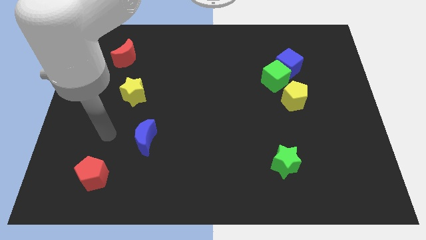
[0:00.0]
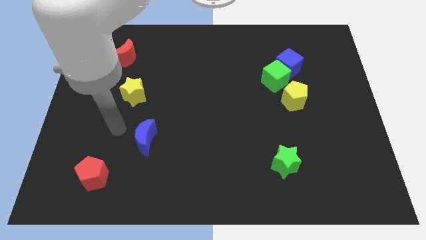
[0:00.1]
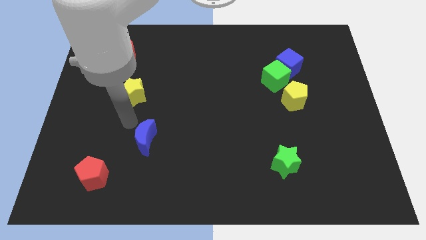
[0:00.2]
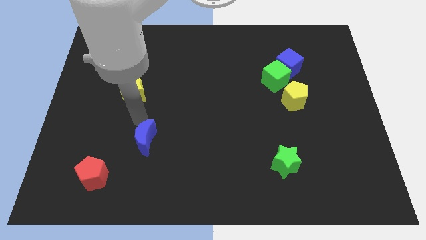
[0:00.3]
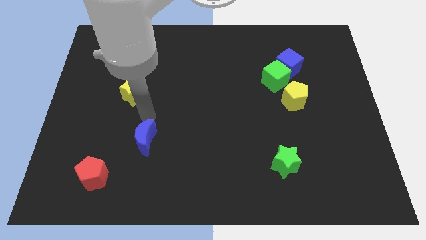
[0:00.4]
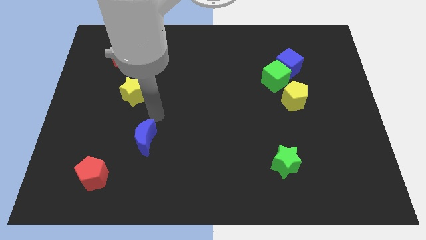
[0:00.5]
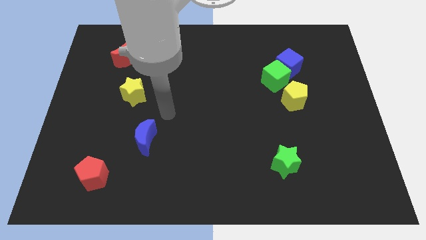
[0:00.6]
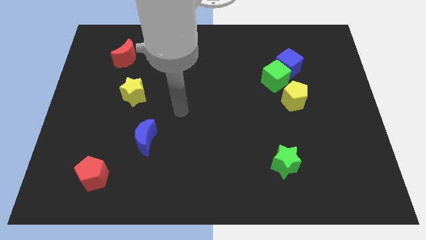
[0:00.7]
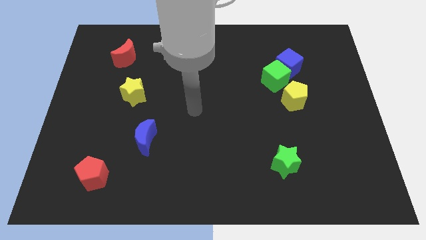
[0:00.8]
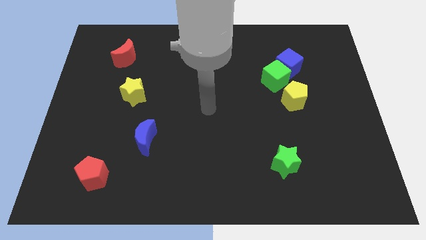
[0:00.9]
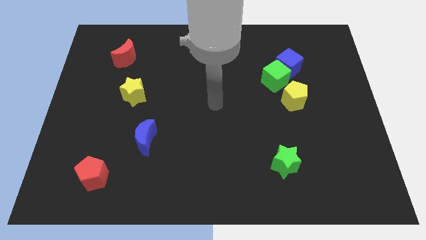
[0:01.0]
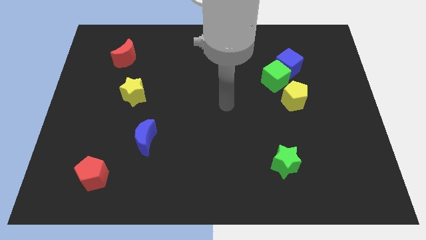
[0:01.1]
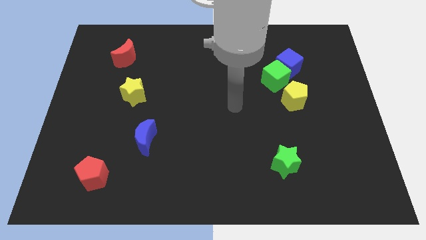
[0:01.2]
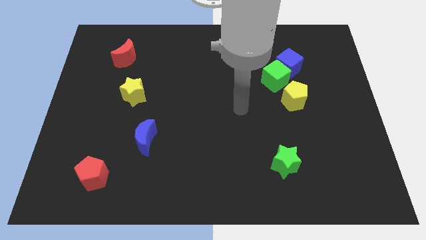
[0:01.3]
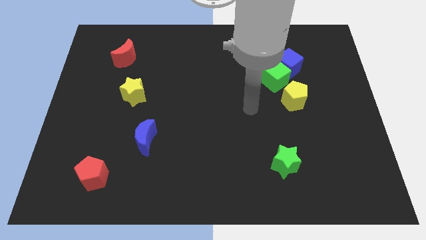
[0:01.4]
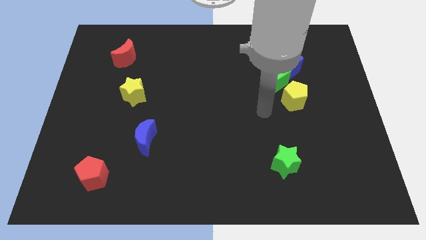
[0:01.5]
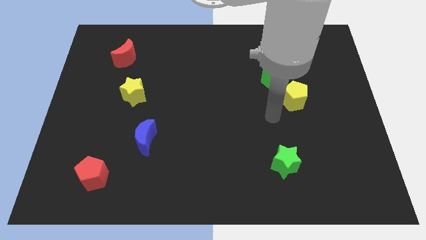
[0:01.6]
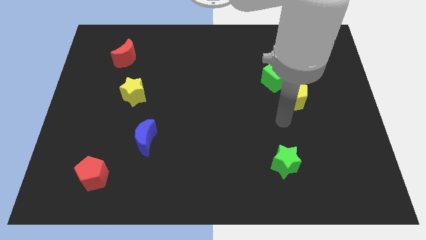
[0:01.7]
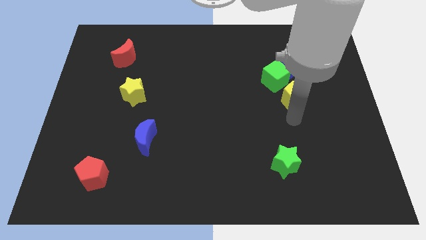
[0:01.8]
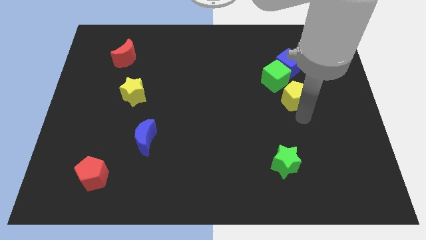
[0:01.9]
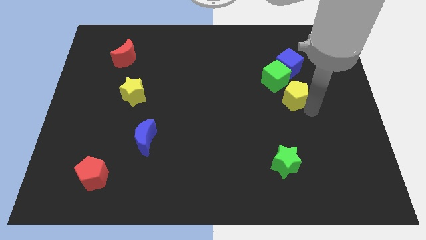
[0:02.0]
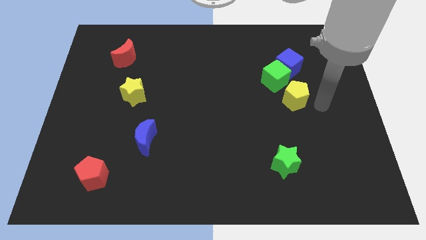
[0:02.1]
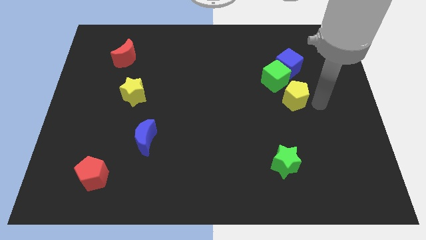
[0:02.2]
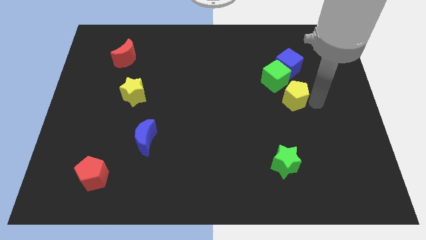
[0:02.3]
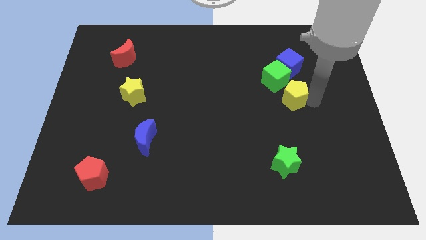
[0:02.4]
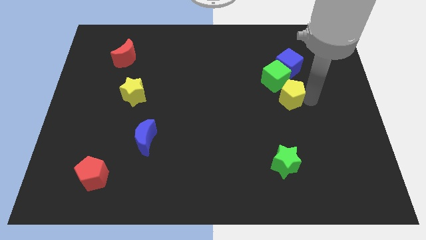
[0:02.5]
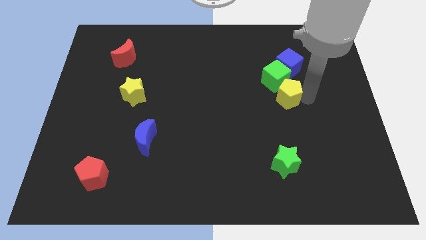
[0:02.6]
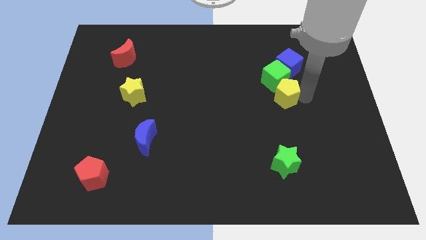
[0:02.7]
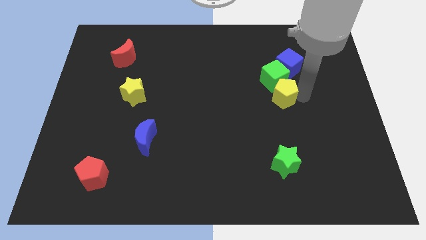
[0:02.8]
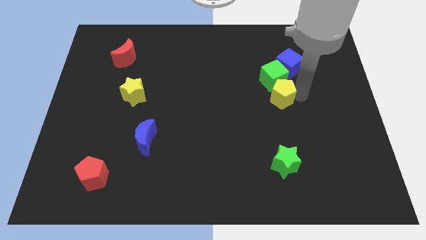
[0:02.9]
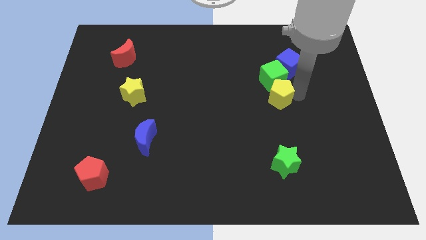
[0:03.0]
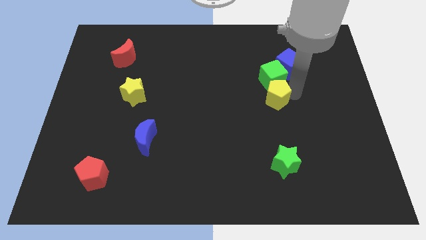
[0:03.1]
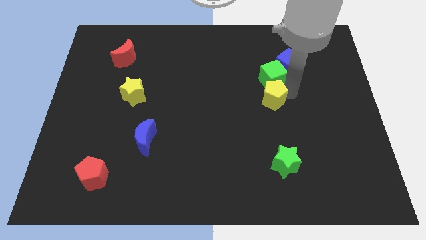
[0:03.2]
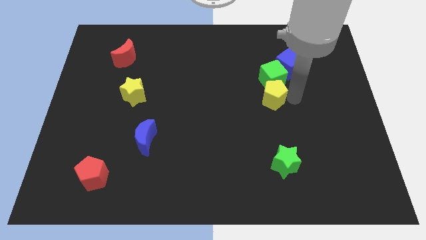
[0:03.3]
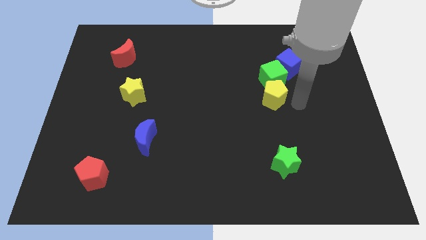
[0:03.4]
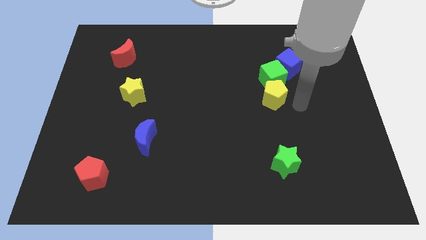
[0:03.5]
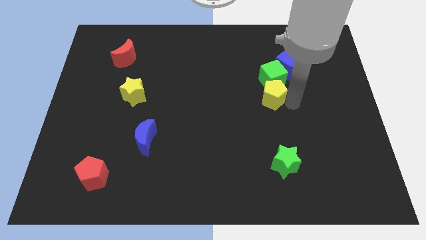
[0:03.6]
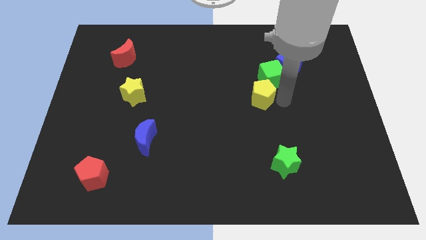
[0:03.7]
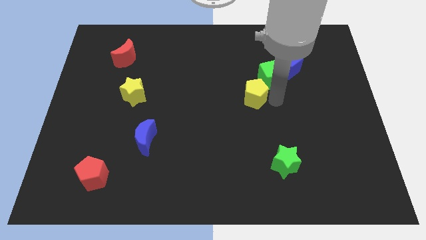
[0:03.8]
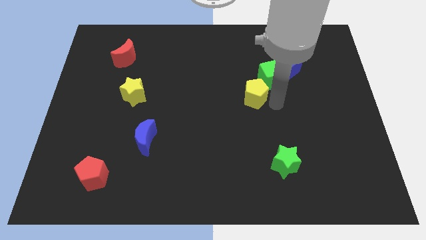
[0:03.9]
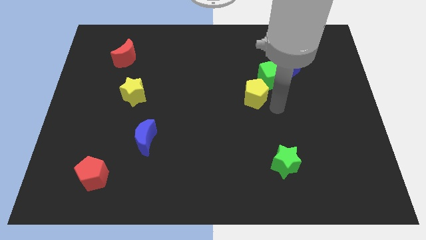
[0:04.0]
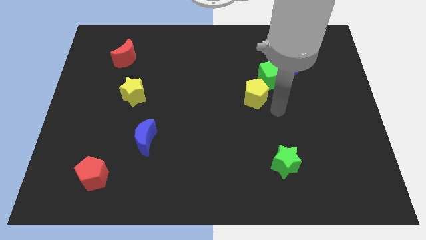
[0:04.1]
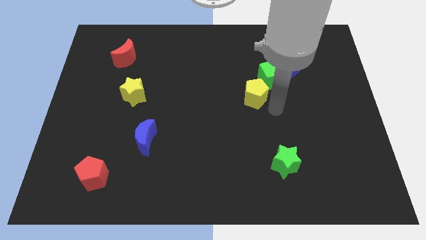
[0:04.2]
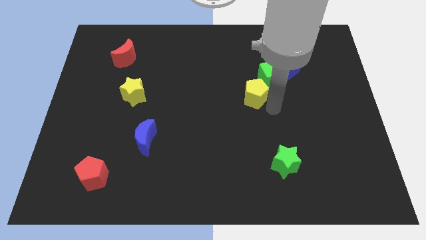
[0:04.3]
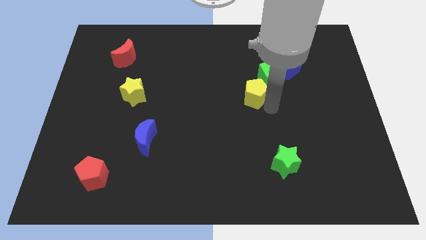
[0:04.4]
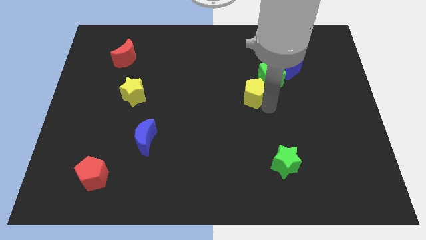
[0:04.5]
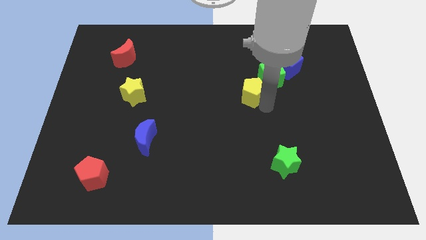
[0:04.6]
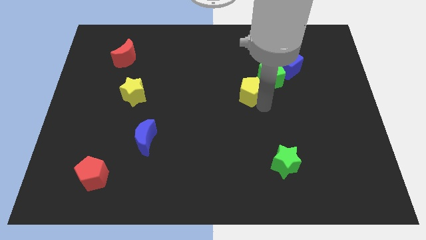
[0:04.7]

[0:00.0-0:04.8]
slide the yellow pentagon upwards and to the left diagonally a little

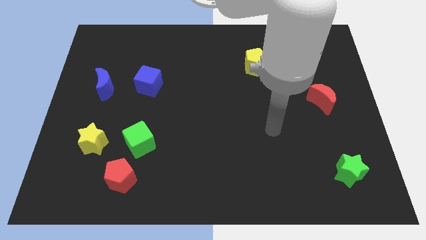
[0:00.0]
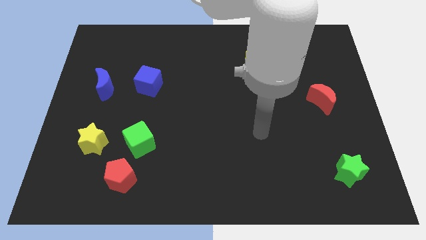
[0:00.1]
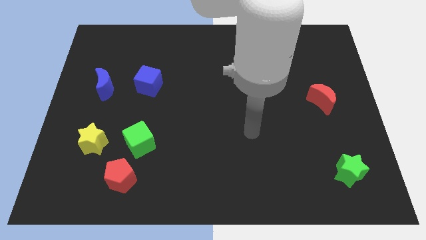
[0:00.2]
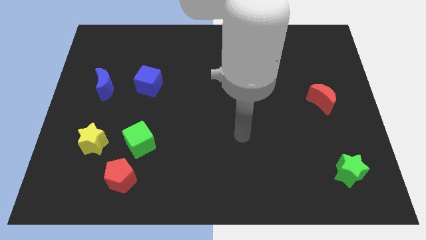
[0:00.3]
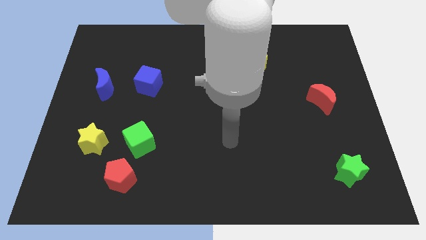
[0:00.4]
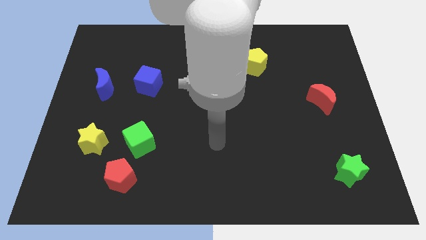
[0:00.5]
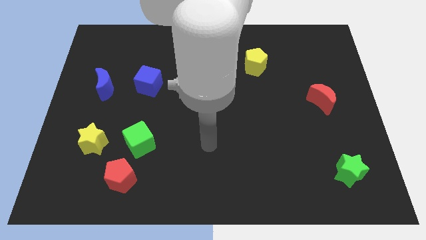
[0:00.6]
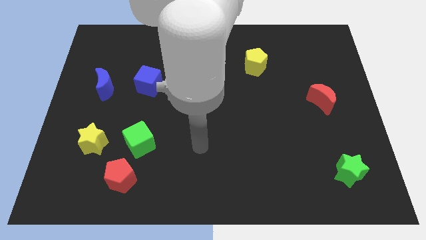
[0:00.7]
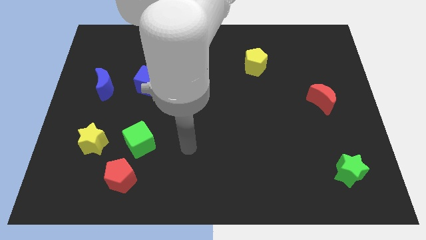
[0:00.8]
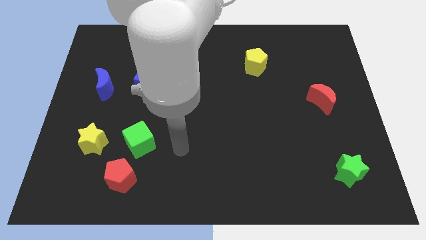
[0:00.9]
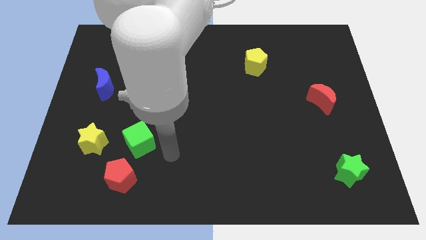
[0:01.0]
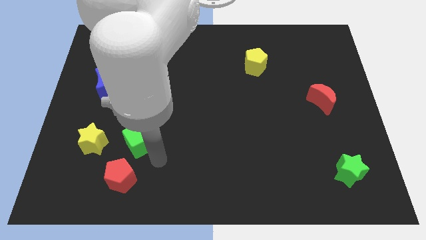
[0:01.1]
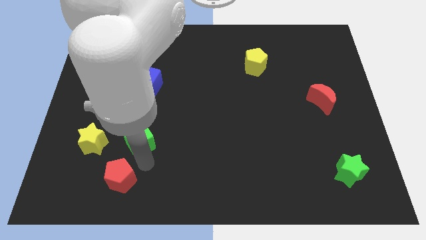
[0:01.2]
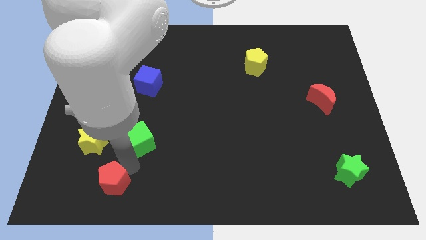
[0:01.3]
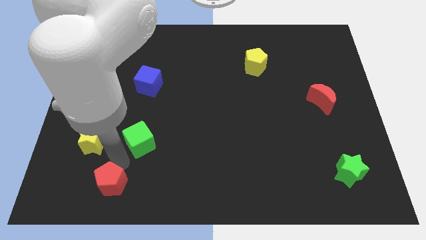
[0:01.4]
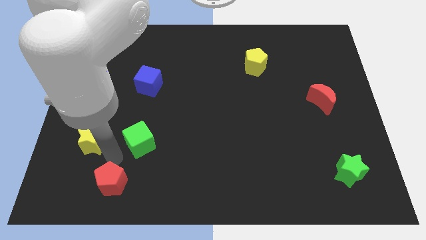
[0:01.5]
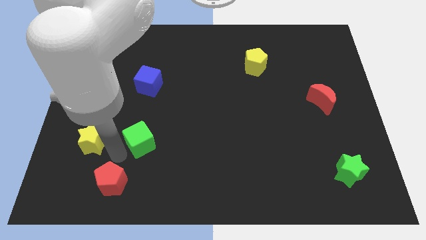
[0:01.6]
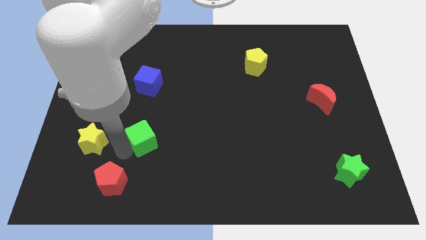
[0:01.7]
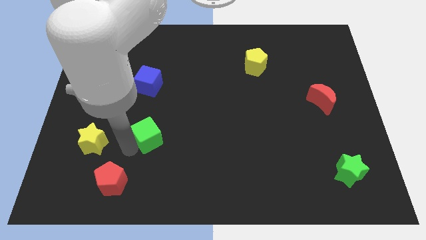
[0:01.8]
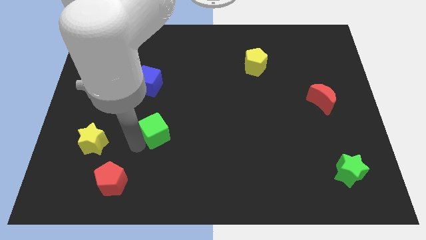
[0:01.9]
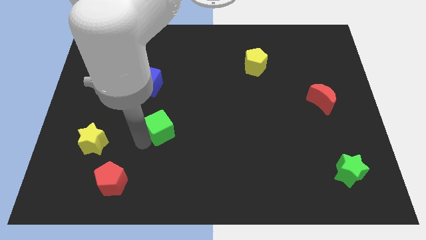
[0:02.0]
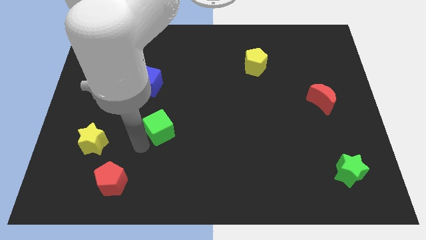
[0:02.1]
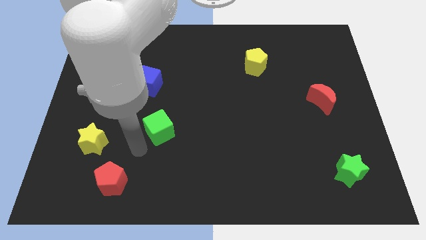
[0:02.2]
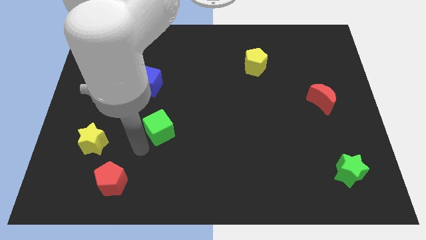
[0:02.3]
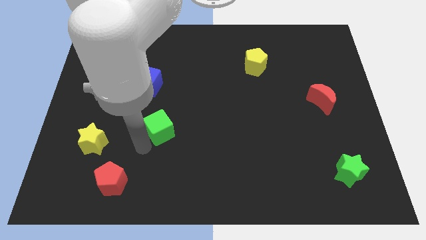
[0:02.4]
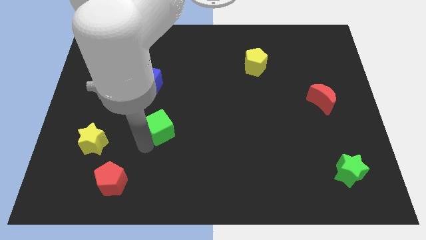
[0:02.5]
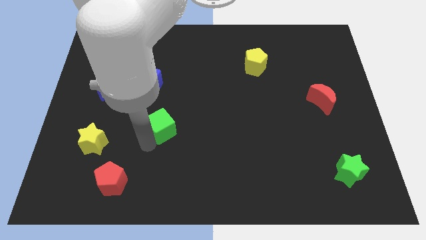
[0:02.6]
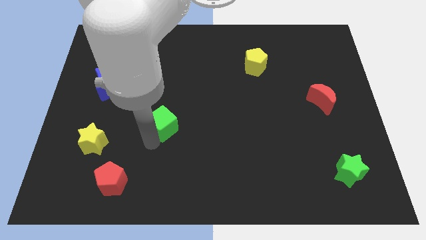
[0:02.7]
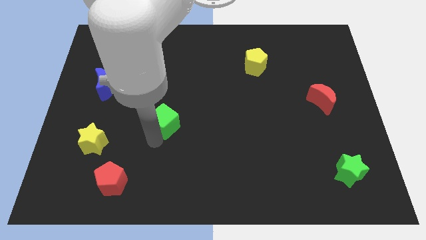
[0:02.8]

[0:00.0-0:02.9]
slide the green cube somewhat diagonally up and right

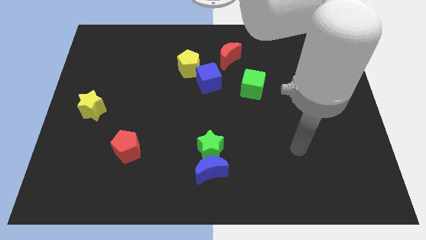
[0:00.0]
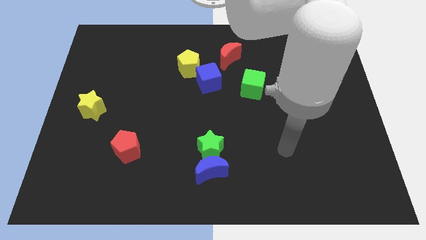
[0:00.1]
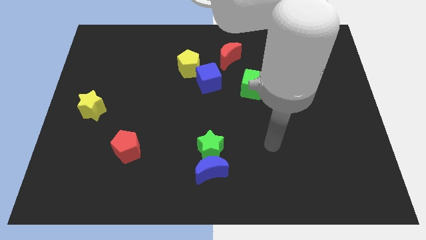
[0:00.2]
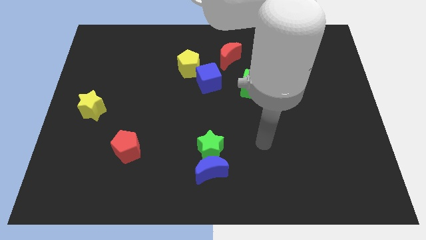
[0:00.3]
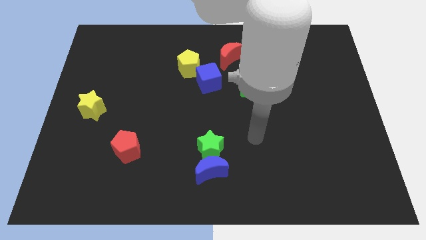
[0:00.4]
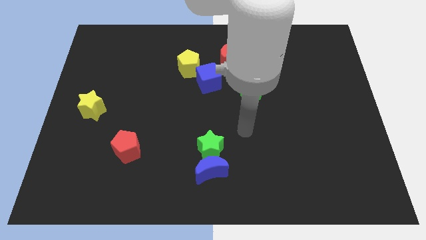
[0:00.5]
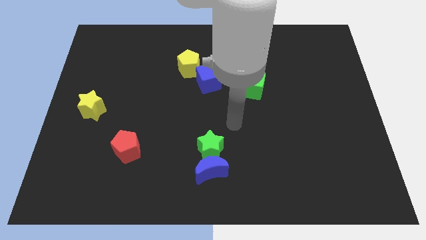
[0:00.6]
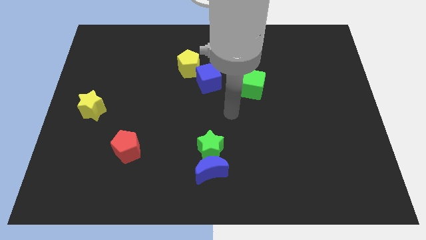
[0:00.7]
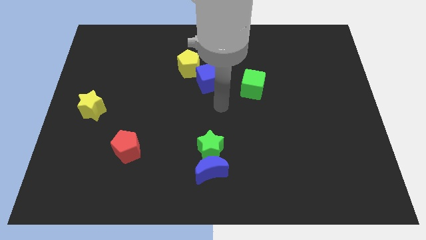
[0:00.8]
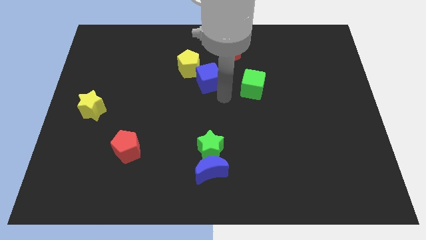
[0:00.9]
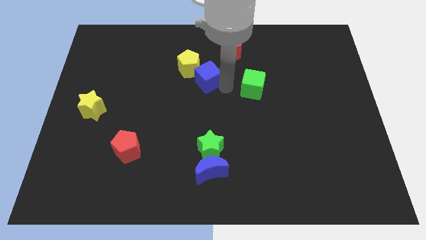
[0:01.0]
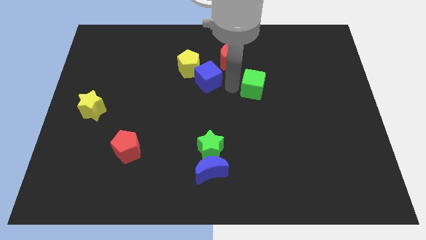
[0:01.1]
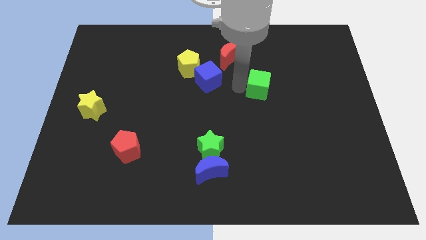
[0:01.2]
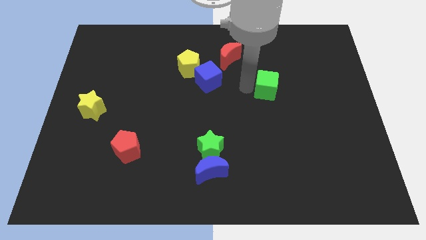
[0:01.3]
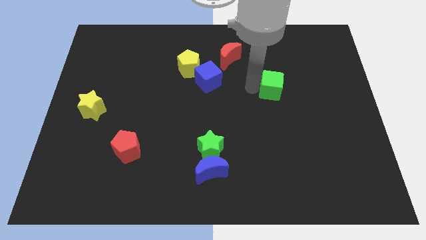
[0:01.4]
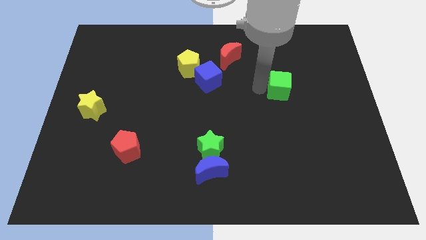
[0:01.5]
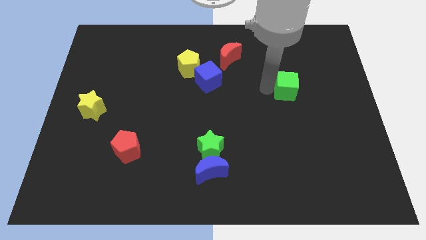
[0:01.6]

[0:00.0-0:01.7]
move the green cube right a little
